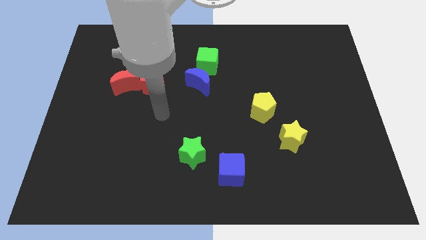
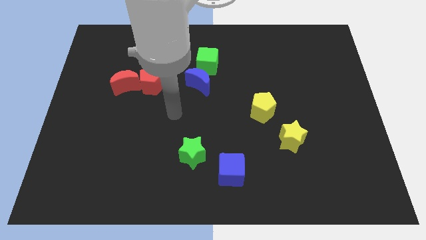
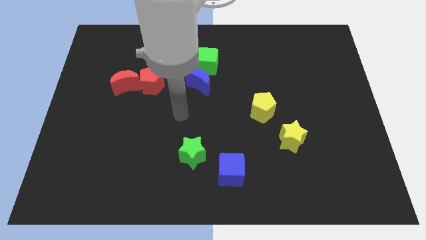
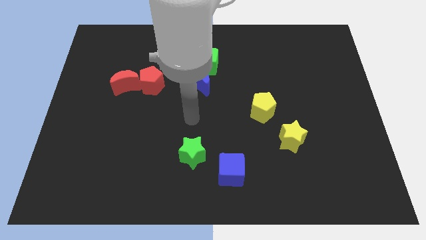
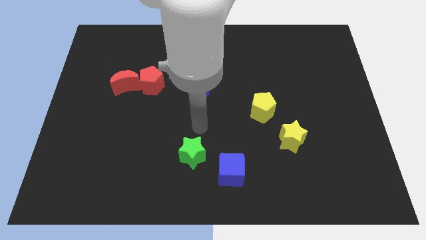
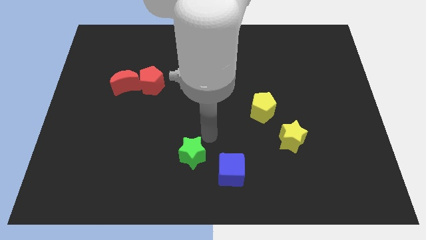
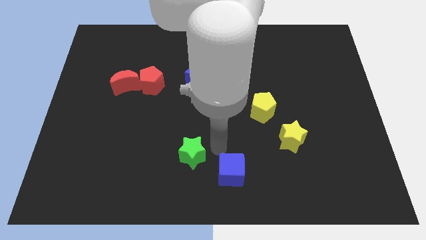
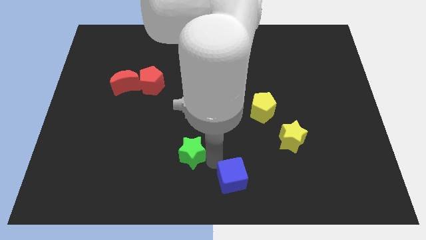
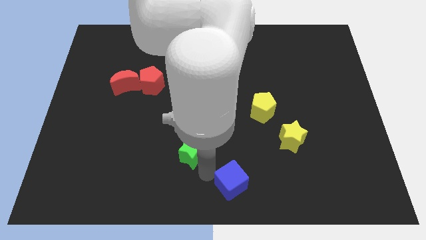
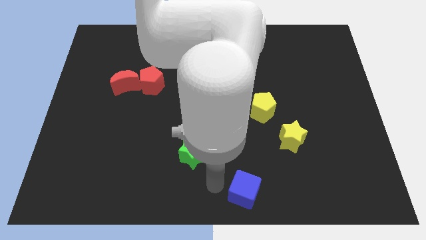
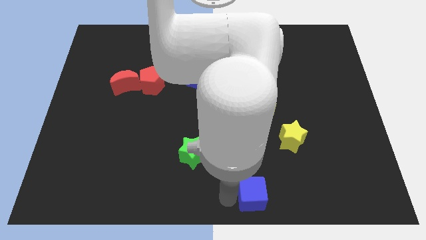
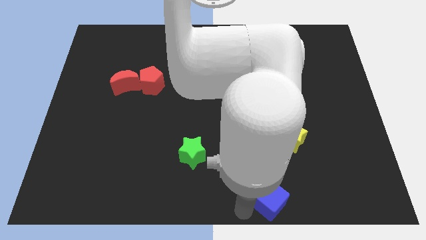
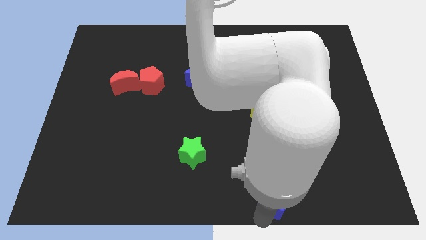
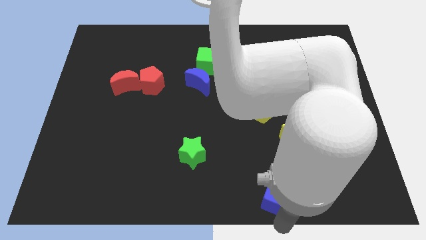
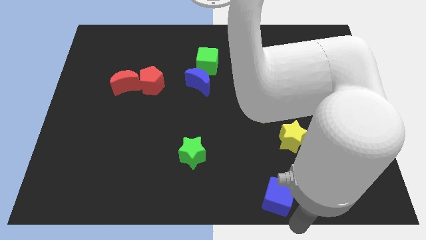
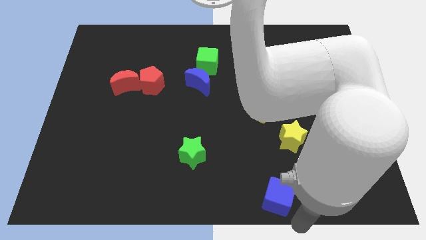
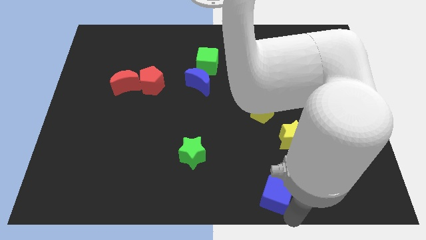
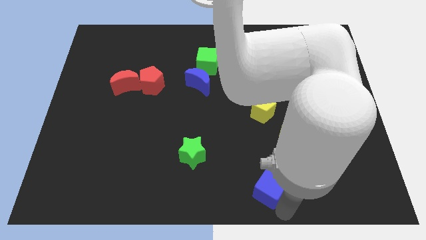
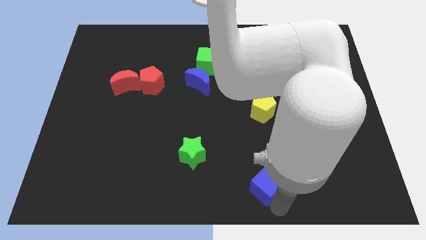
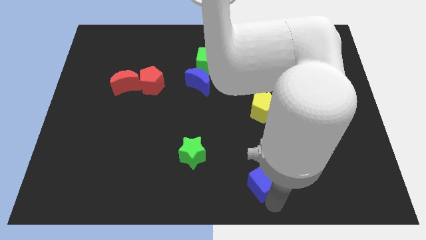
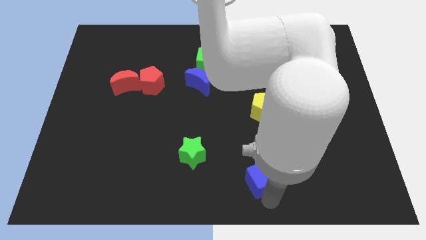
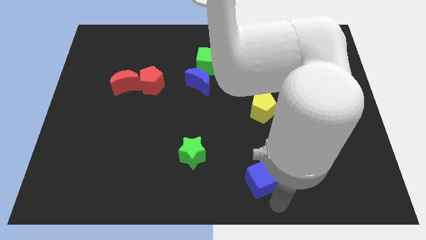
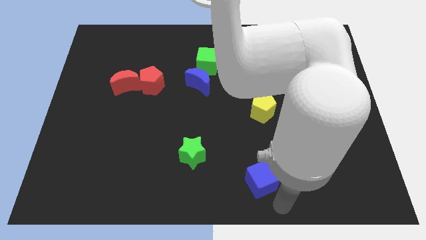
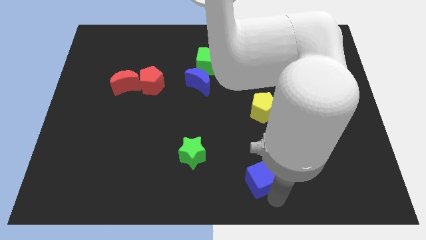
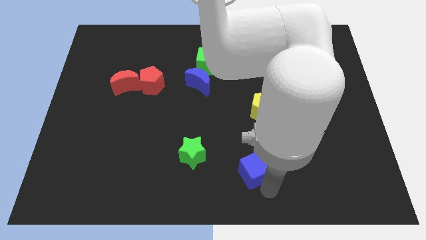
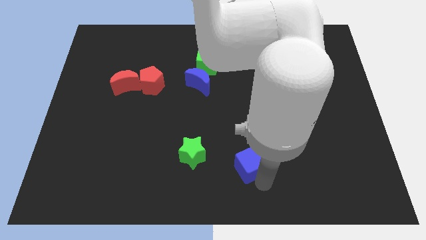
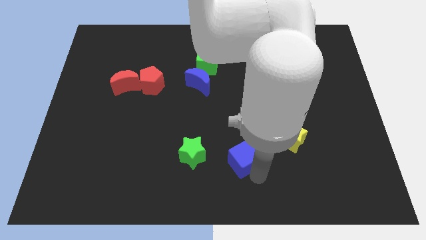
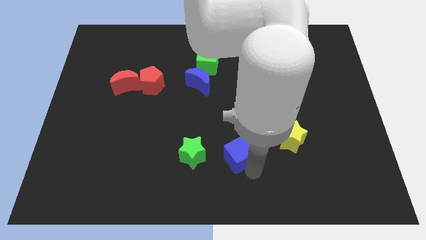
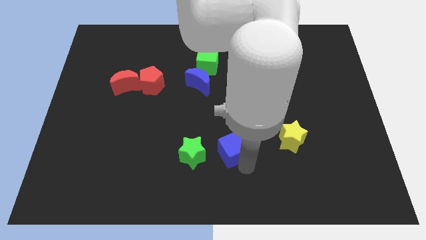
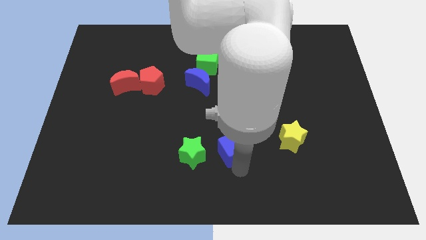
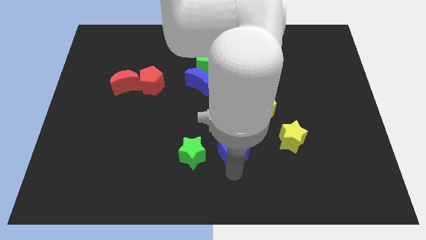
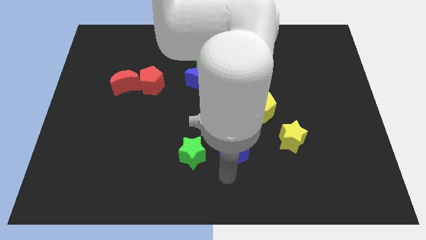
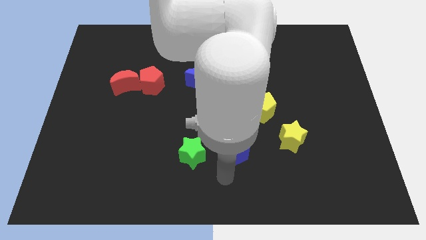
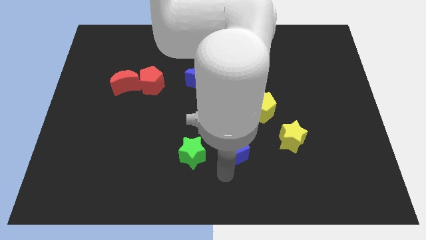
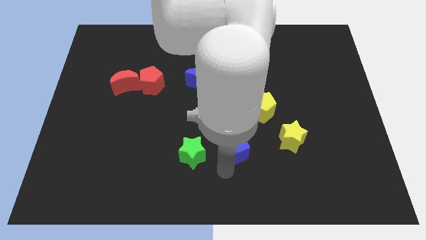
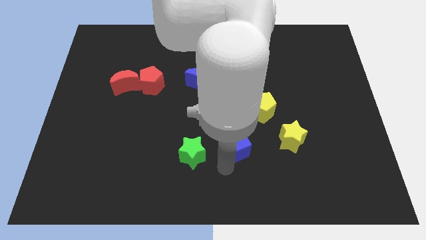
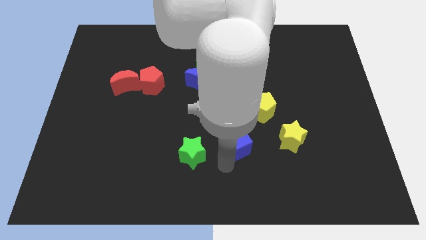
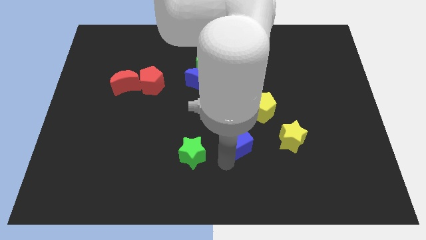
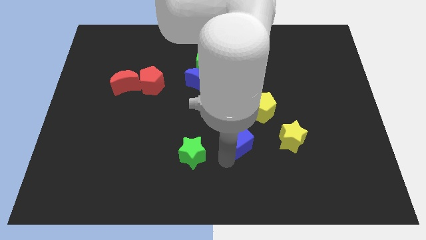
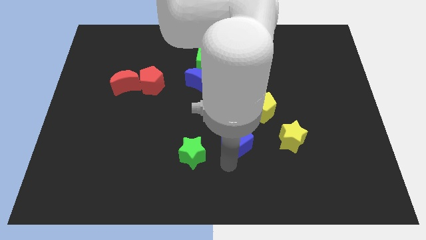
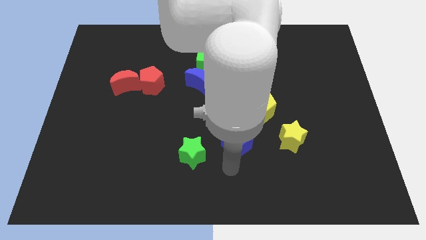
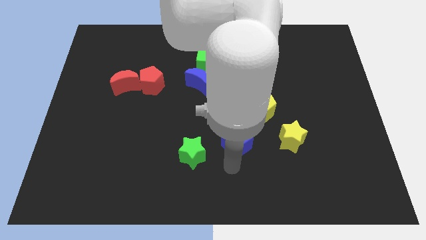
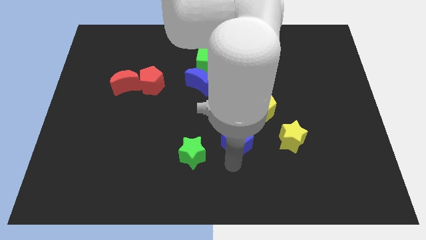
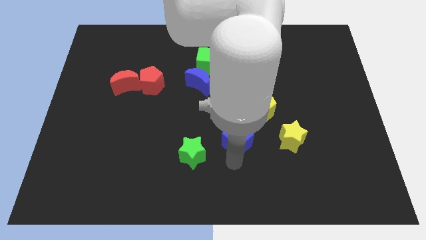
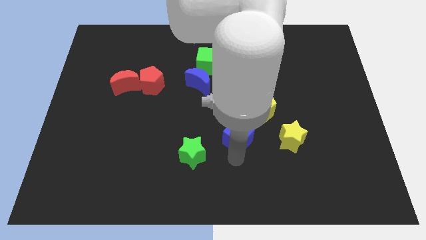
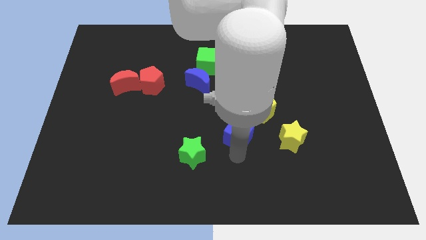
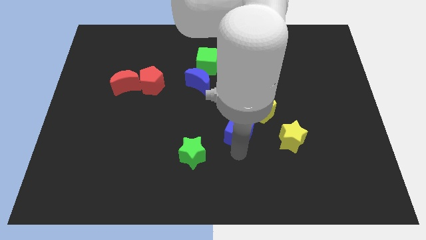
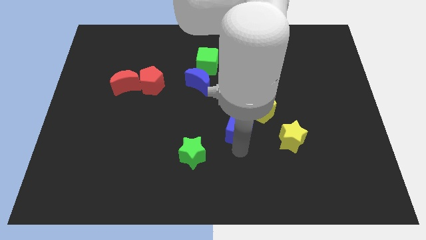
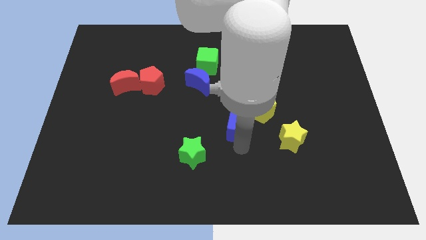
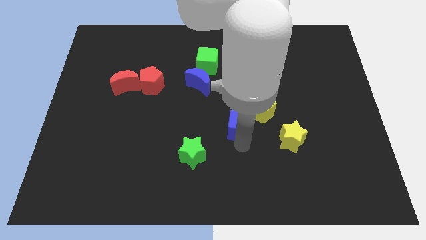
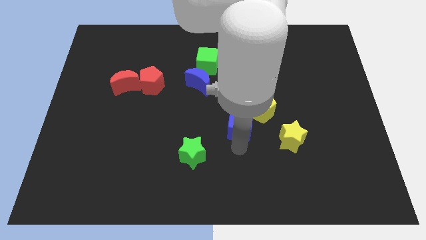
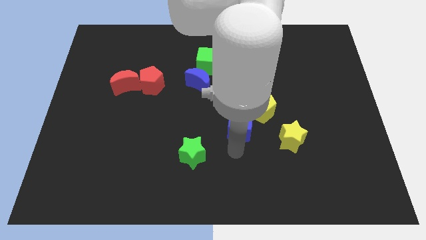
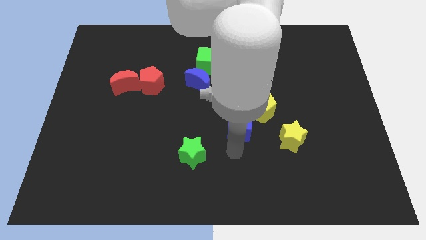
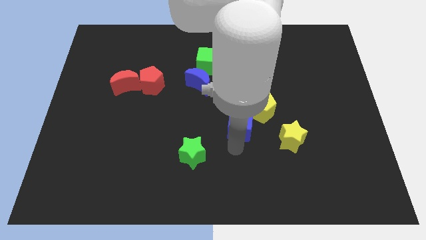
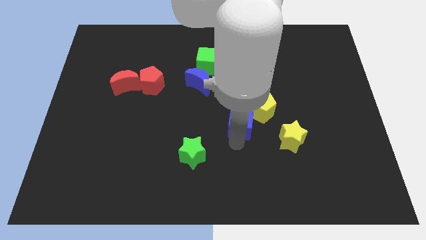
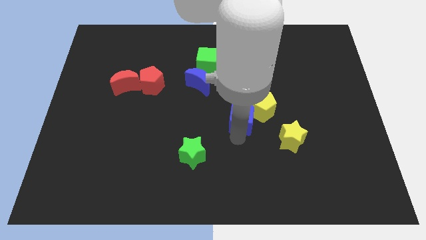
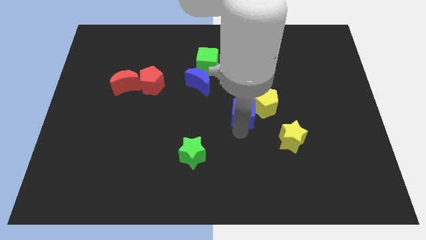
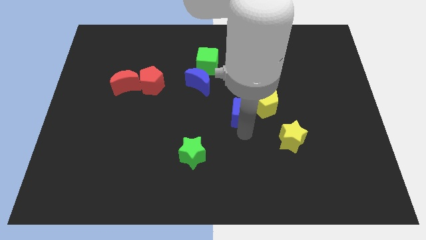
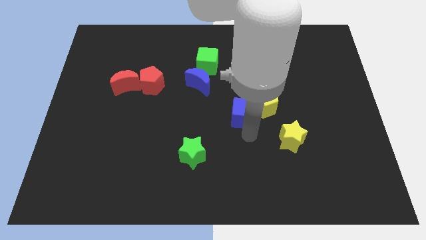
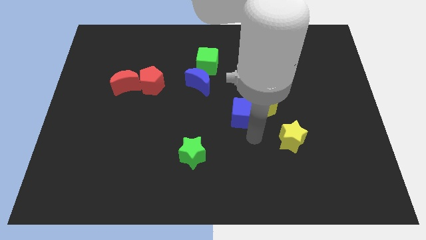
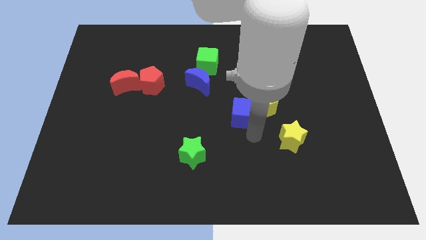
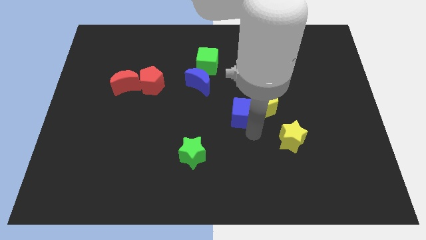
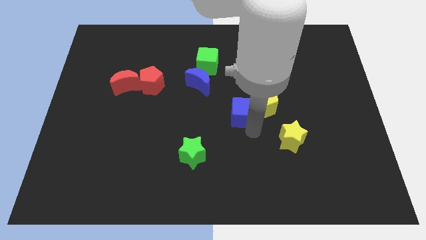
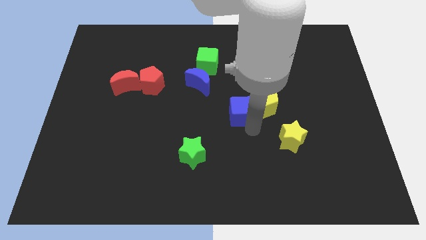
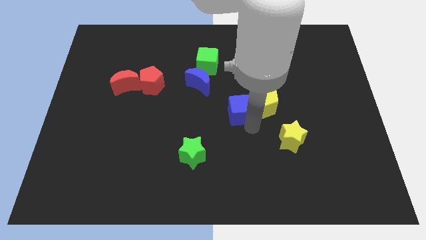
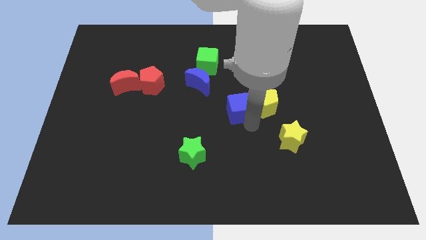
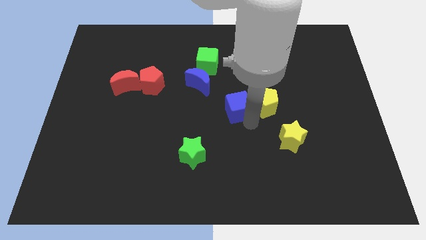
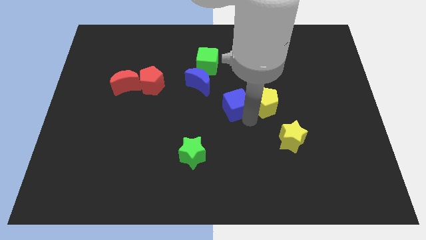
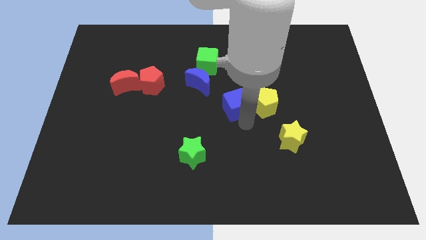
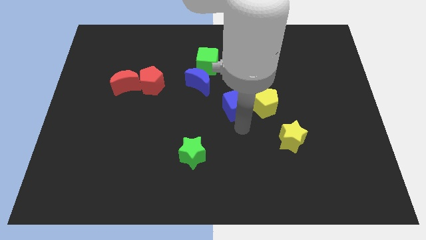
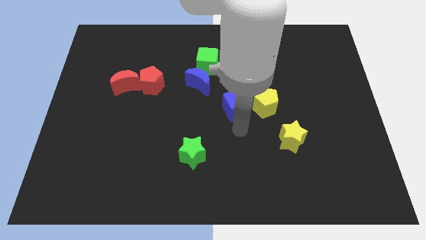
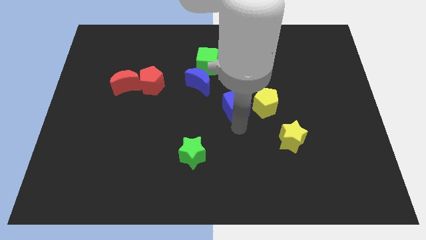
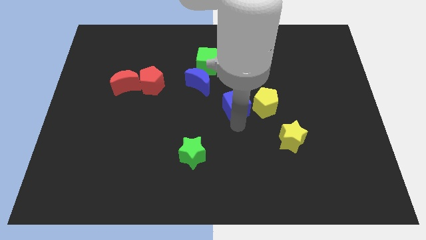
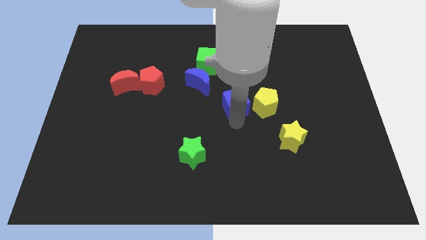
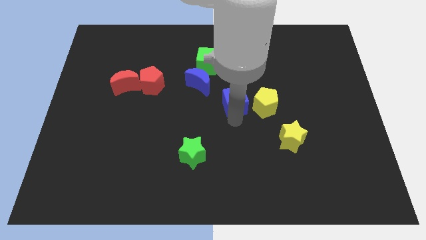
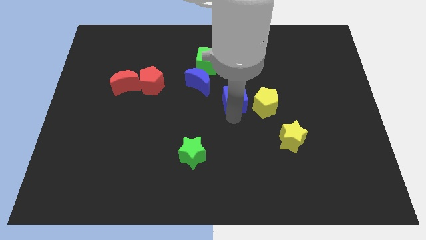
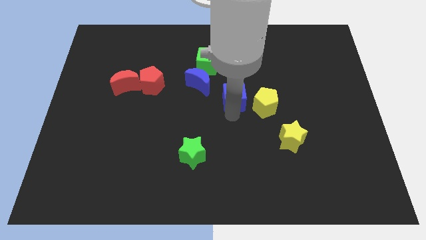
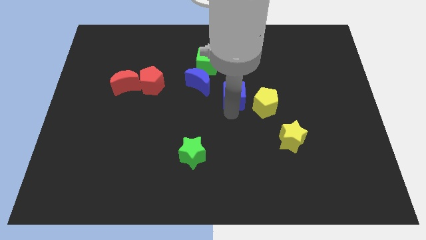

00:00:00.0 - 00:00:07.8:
push the blue cube up
